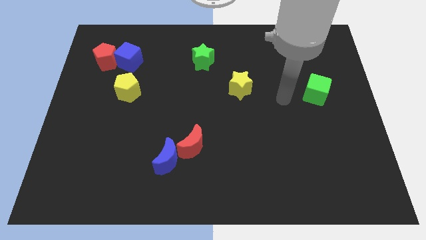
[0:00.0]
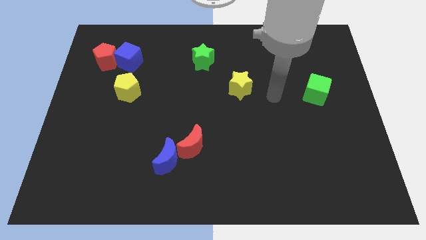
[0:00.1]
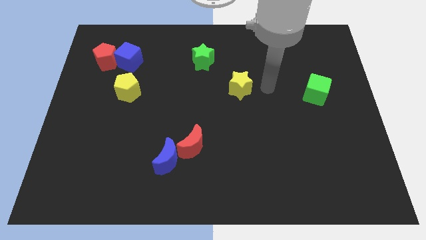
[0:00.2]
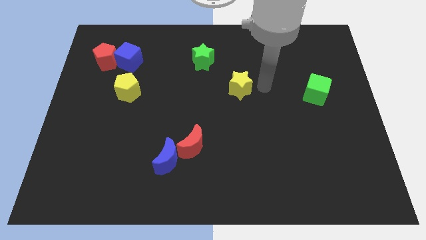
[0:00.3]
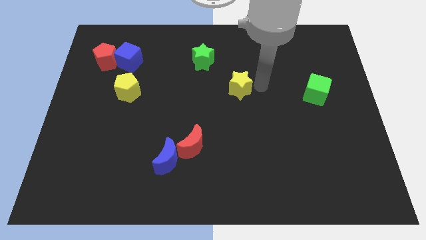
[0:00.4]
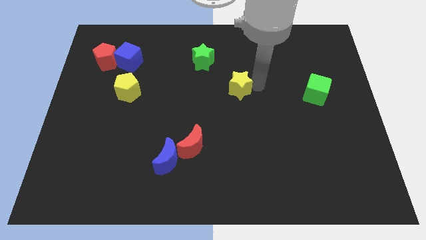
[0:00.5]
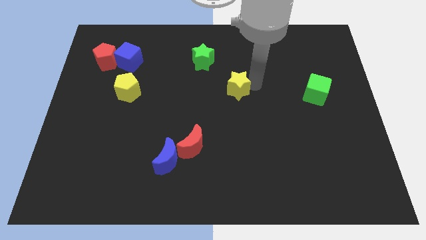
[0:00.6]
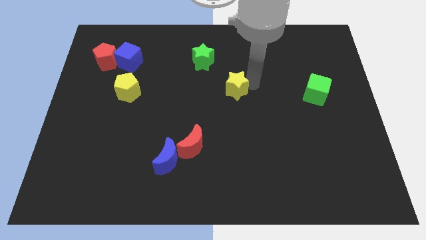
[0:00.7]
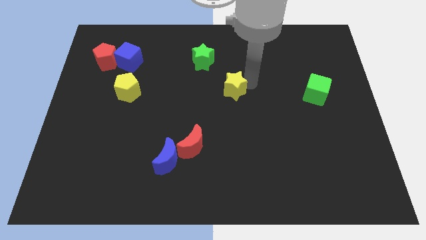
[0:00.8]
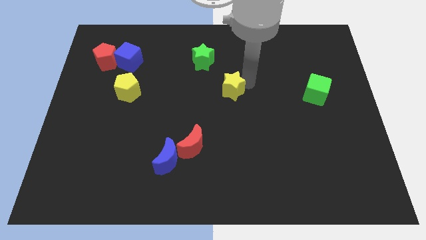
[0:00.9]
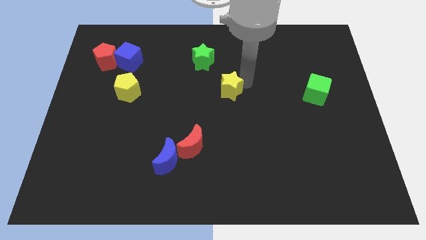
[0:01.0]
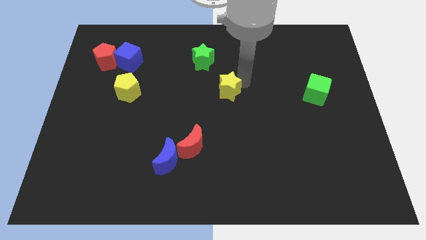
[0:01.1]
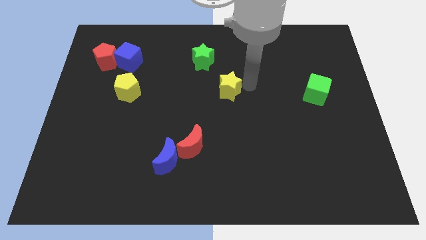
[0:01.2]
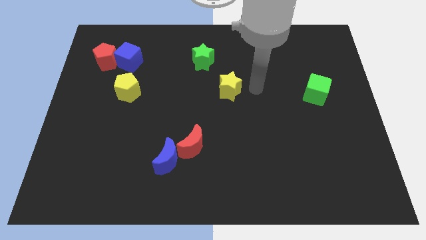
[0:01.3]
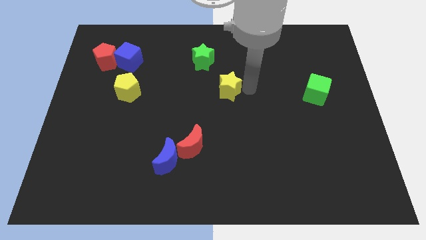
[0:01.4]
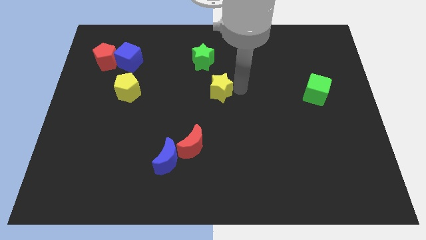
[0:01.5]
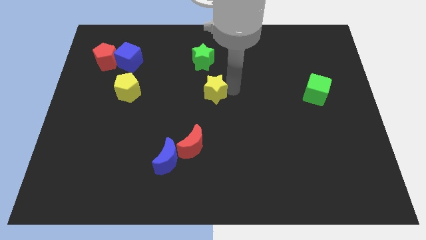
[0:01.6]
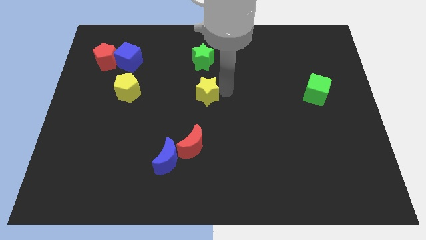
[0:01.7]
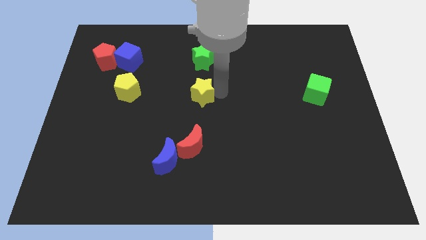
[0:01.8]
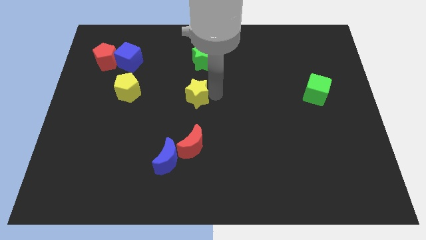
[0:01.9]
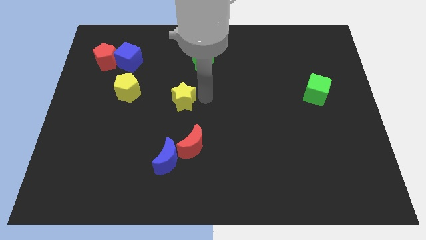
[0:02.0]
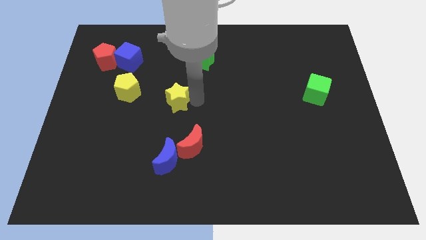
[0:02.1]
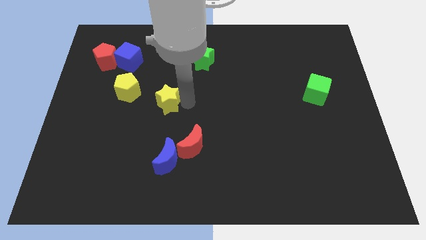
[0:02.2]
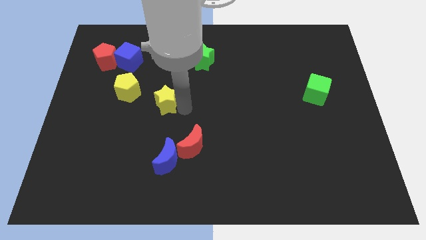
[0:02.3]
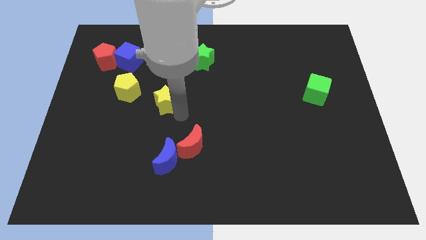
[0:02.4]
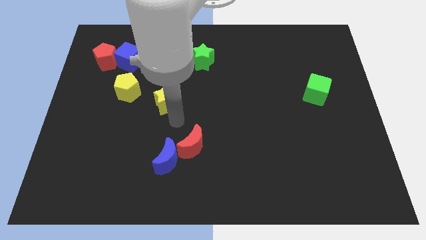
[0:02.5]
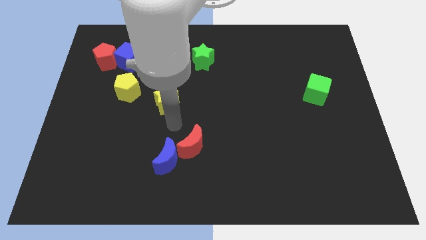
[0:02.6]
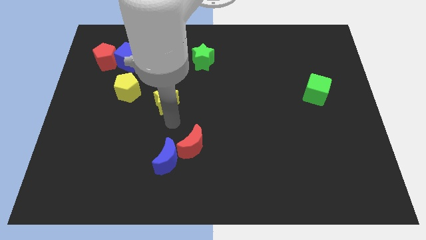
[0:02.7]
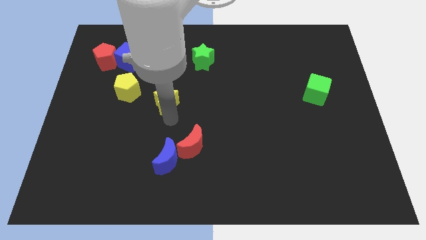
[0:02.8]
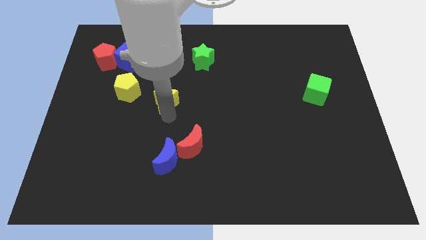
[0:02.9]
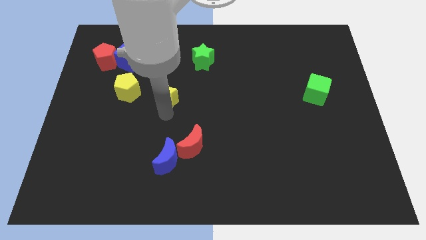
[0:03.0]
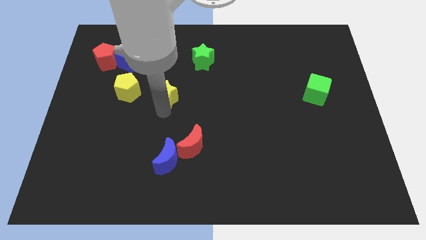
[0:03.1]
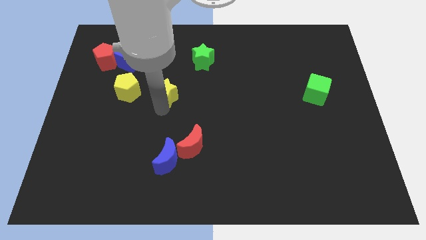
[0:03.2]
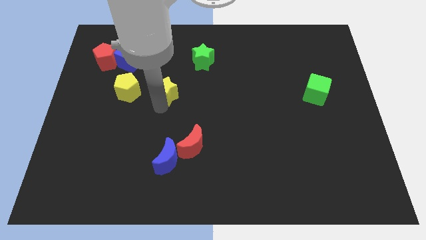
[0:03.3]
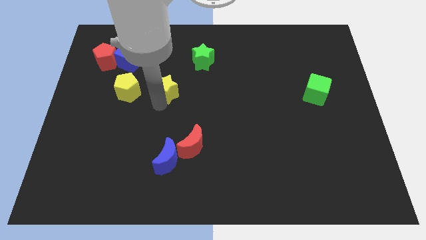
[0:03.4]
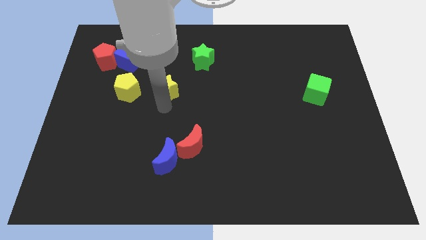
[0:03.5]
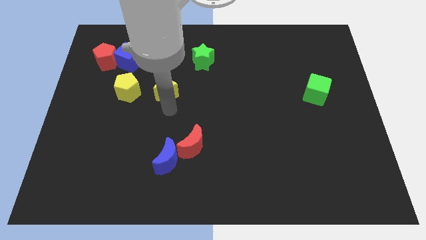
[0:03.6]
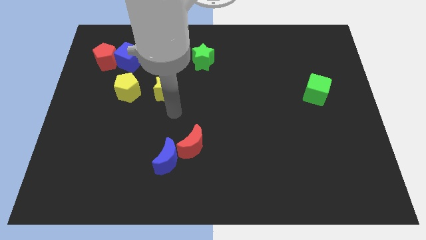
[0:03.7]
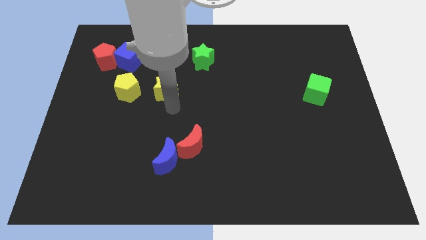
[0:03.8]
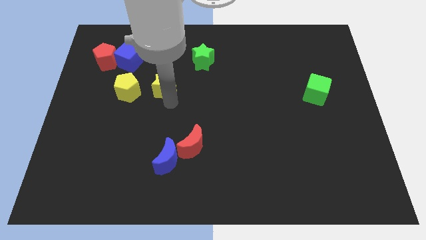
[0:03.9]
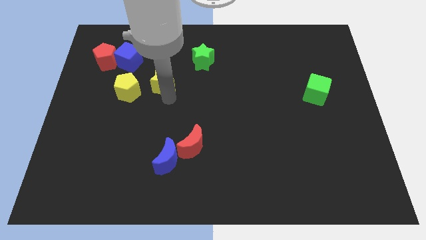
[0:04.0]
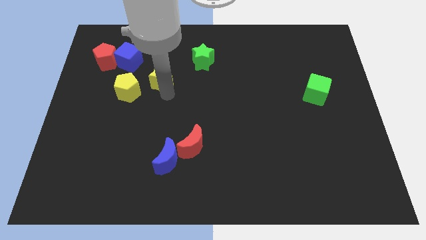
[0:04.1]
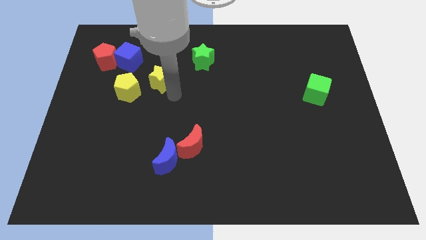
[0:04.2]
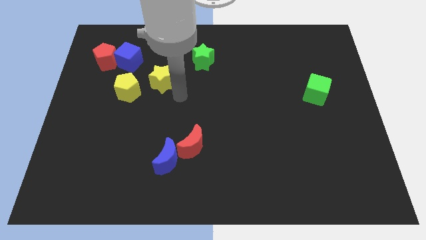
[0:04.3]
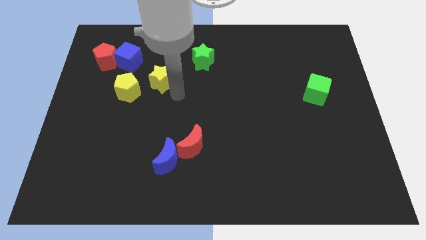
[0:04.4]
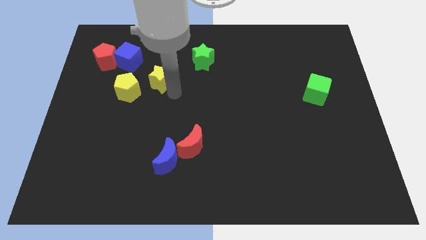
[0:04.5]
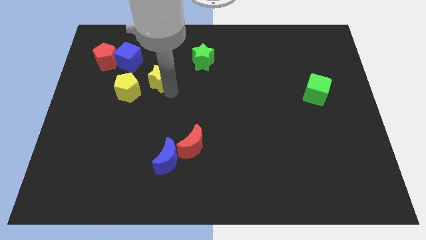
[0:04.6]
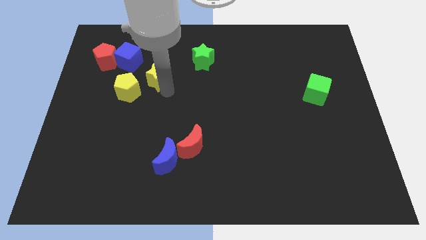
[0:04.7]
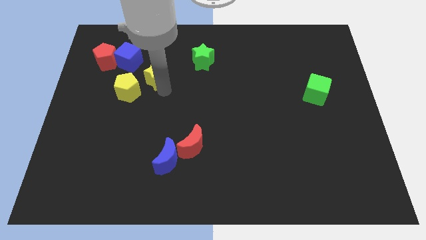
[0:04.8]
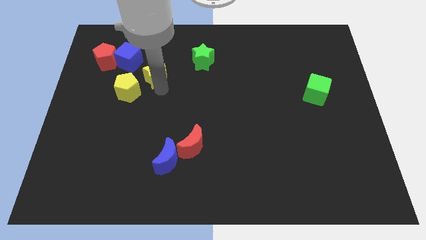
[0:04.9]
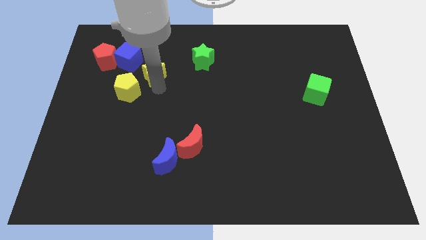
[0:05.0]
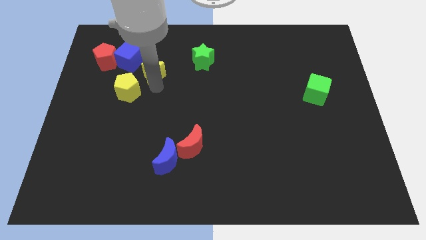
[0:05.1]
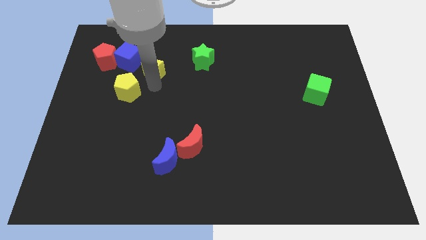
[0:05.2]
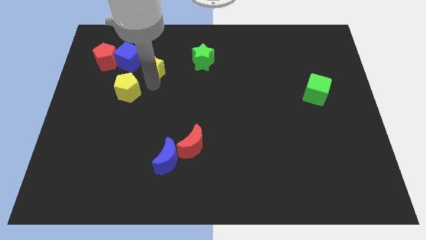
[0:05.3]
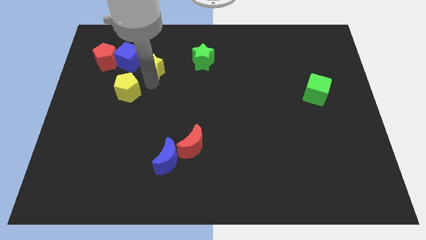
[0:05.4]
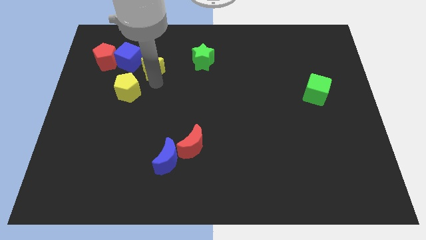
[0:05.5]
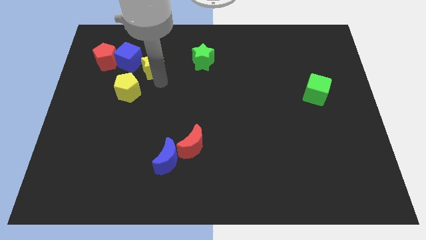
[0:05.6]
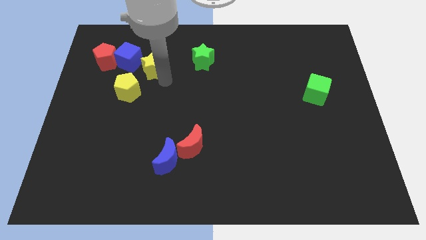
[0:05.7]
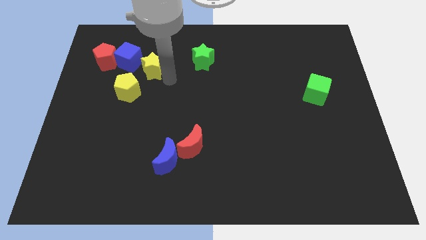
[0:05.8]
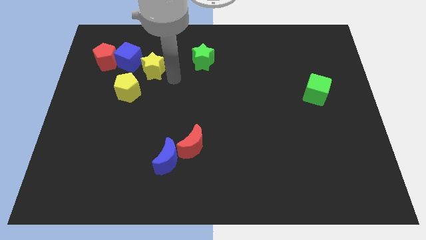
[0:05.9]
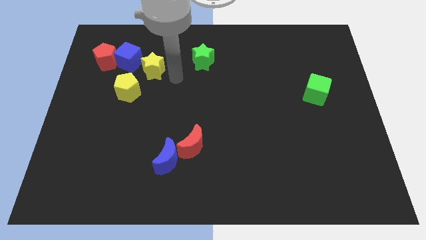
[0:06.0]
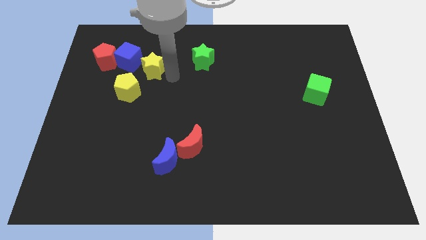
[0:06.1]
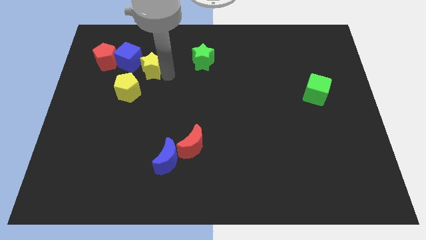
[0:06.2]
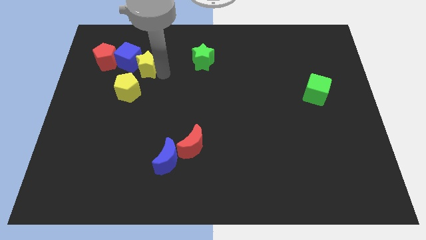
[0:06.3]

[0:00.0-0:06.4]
move the yellow star towards the blue cube

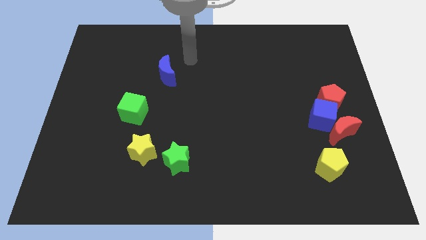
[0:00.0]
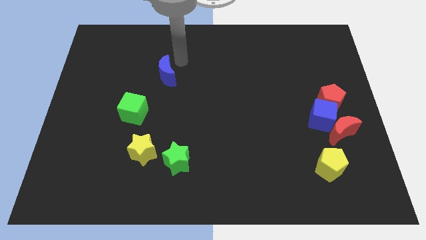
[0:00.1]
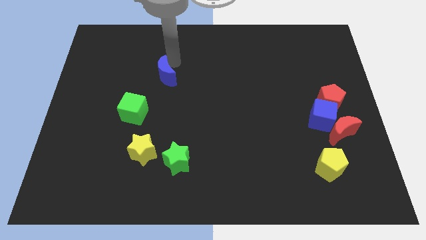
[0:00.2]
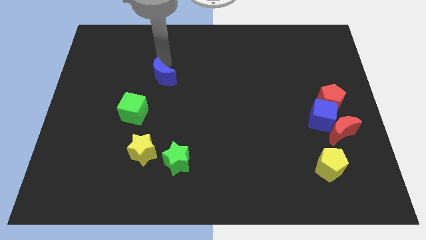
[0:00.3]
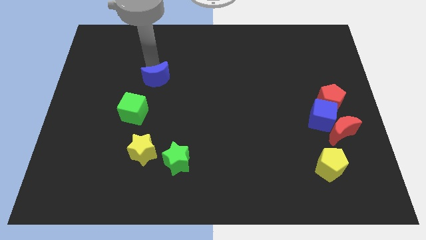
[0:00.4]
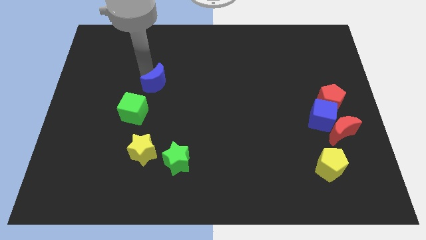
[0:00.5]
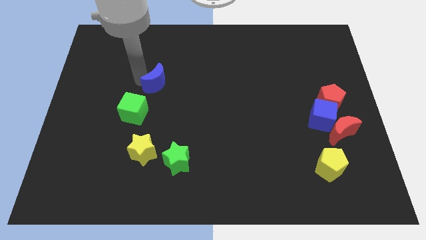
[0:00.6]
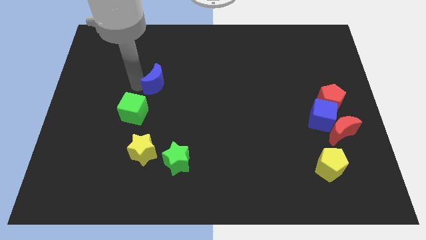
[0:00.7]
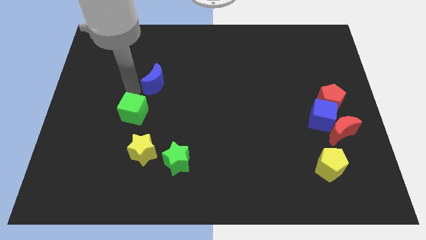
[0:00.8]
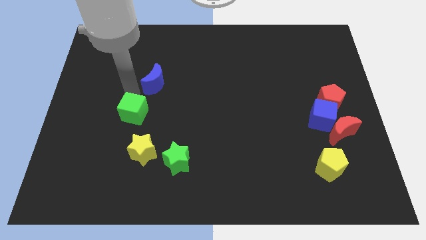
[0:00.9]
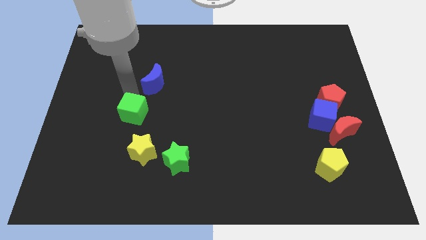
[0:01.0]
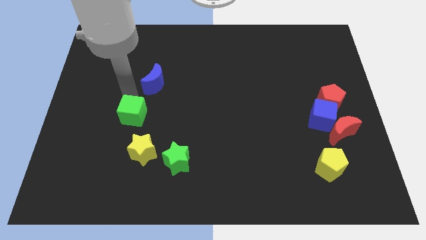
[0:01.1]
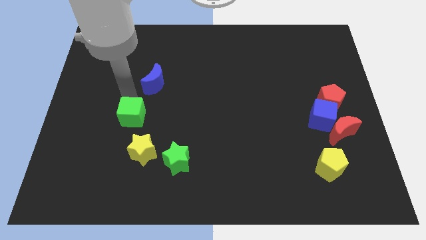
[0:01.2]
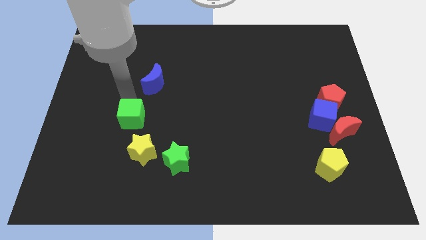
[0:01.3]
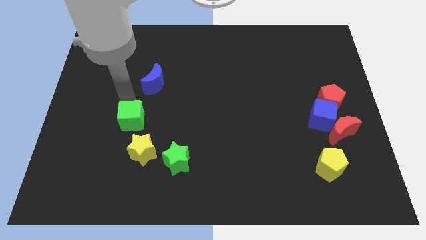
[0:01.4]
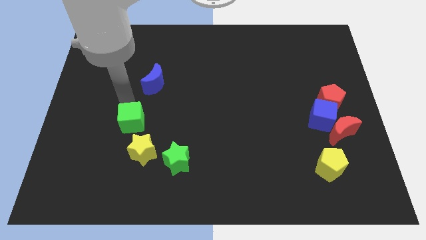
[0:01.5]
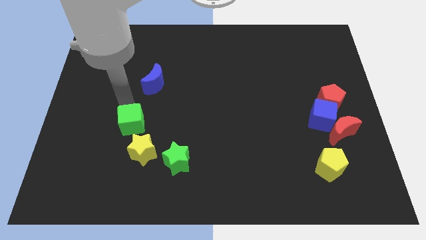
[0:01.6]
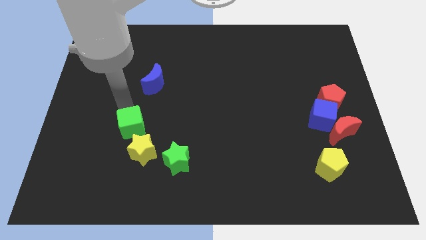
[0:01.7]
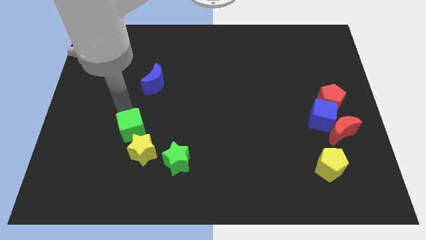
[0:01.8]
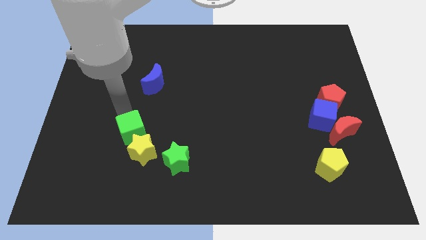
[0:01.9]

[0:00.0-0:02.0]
push the green cube next to the yellow star
